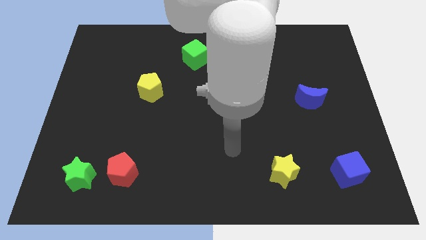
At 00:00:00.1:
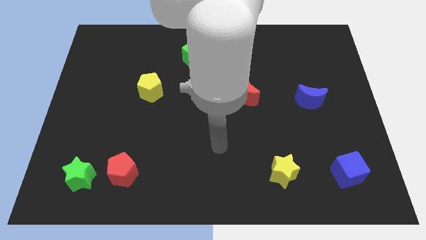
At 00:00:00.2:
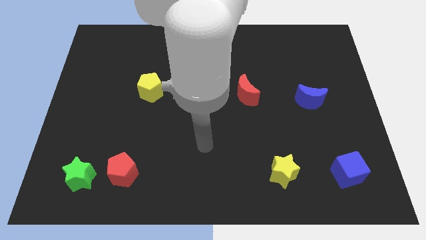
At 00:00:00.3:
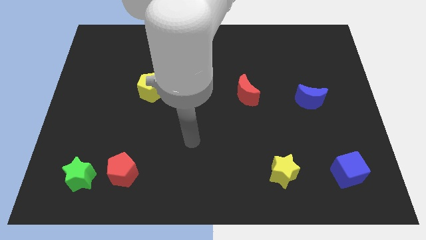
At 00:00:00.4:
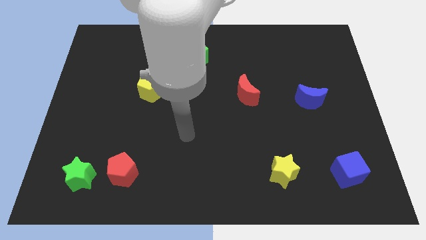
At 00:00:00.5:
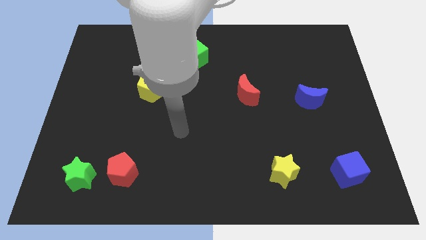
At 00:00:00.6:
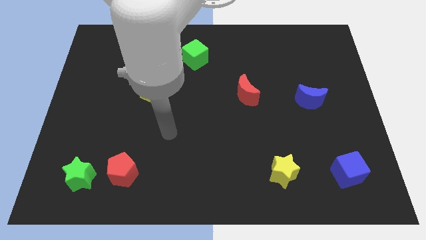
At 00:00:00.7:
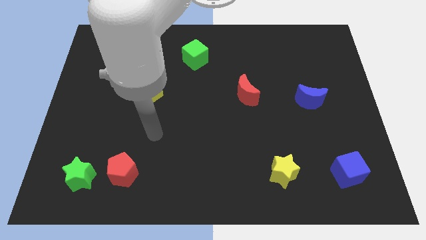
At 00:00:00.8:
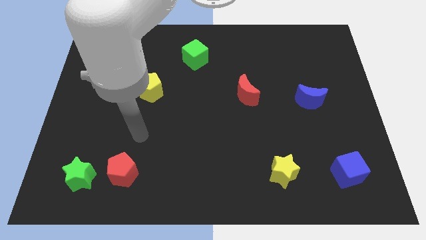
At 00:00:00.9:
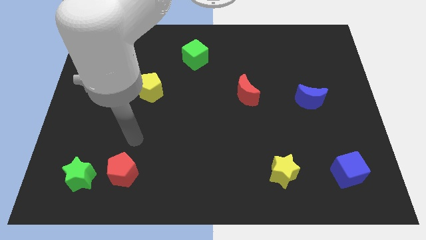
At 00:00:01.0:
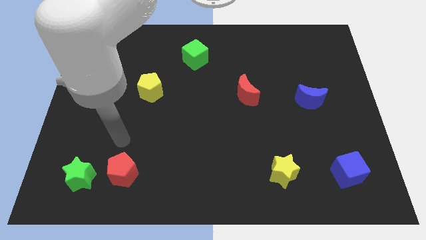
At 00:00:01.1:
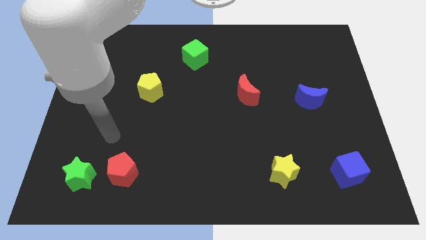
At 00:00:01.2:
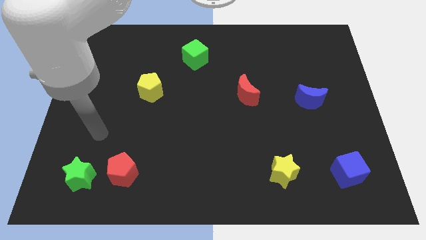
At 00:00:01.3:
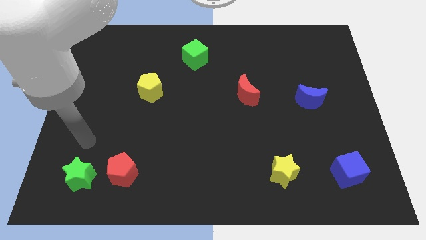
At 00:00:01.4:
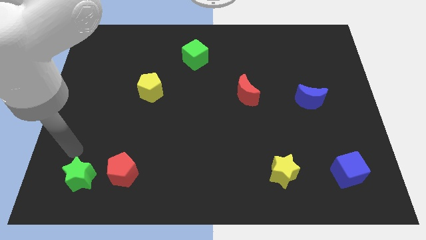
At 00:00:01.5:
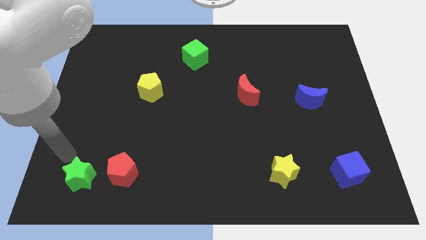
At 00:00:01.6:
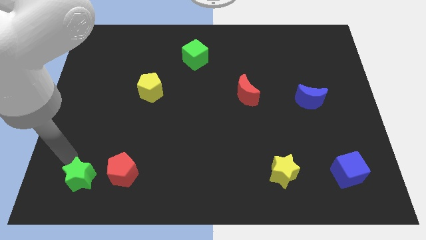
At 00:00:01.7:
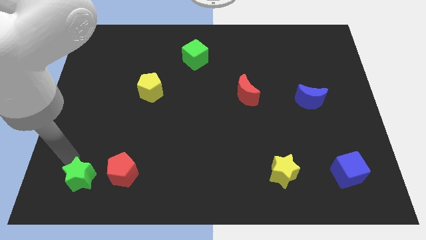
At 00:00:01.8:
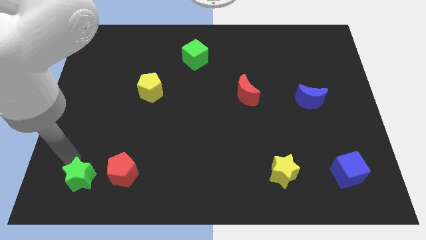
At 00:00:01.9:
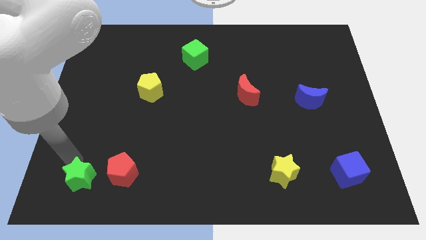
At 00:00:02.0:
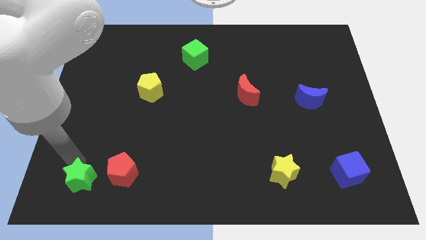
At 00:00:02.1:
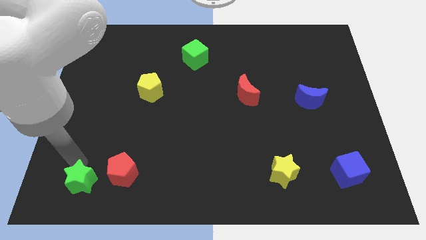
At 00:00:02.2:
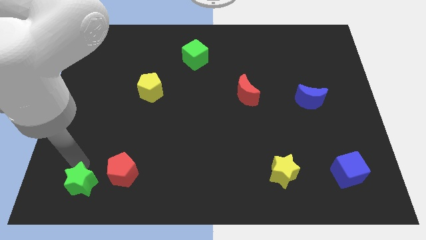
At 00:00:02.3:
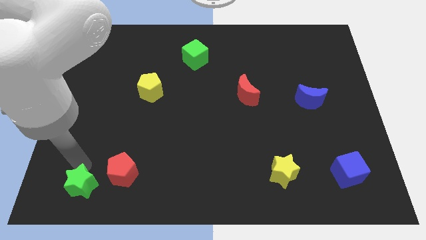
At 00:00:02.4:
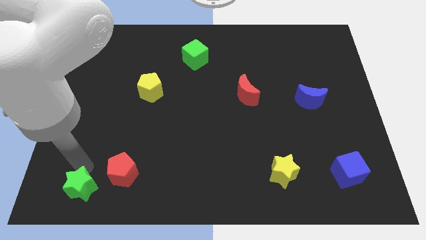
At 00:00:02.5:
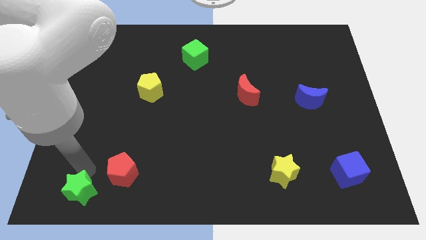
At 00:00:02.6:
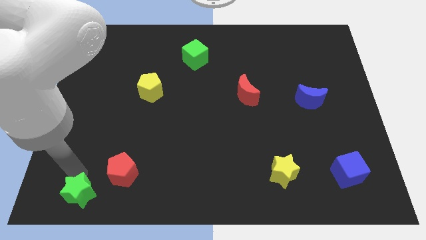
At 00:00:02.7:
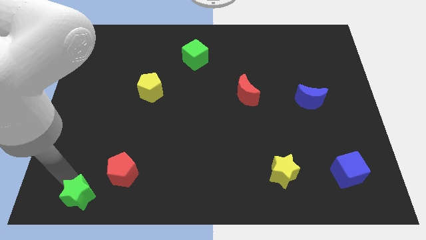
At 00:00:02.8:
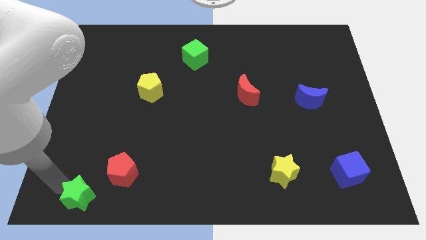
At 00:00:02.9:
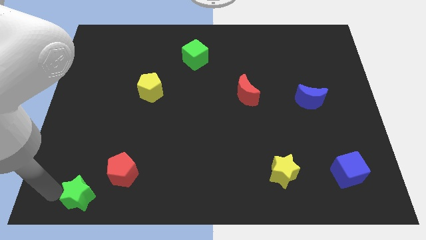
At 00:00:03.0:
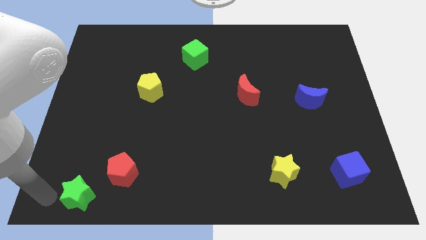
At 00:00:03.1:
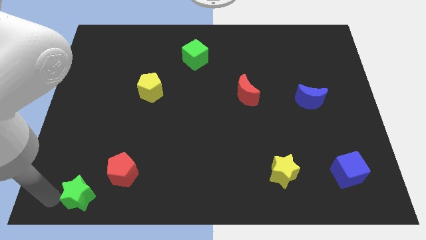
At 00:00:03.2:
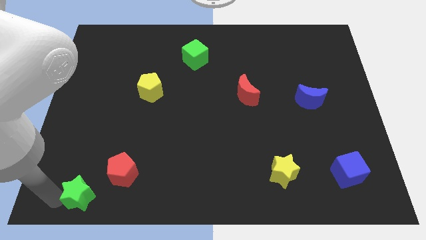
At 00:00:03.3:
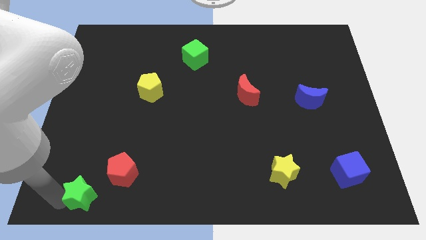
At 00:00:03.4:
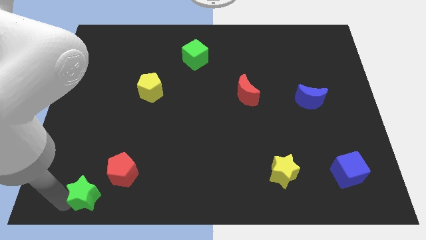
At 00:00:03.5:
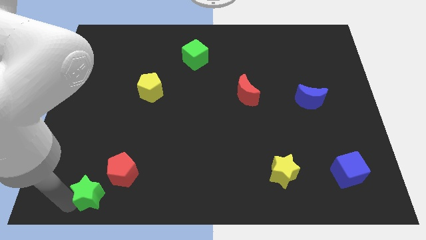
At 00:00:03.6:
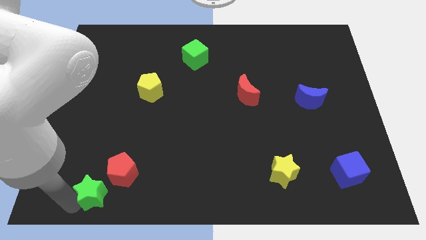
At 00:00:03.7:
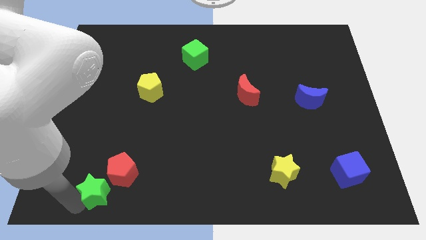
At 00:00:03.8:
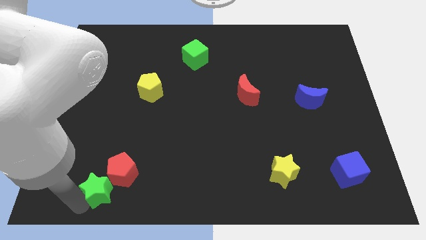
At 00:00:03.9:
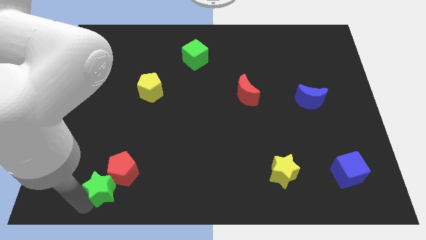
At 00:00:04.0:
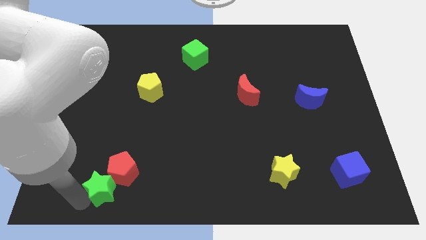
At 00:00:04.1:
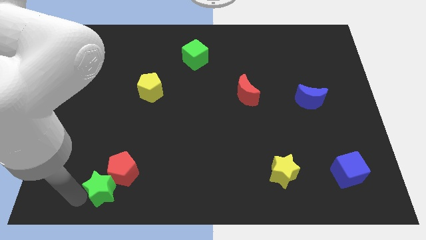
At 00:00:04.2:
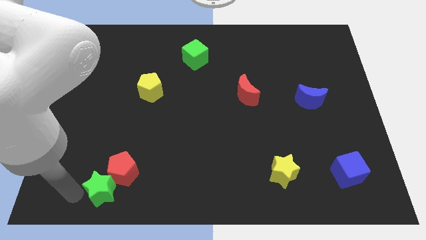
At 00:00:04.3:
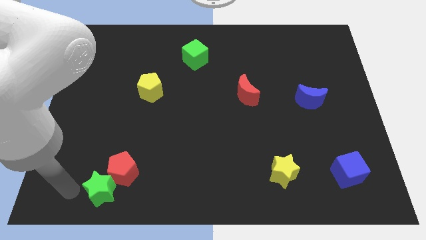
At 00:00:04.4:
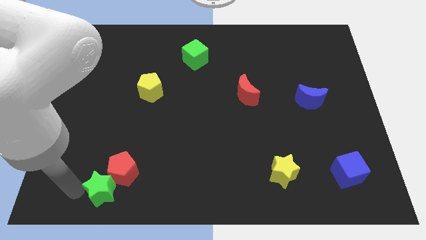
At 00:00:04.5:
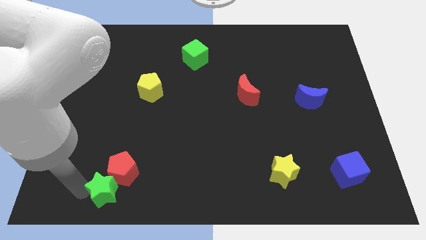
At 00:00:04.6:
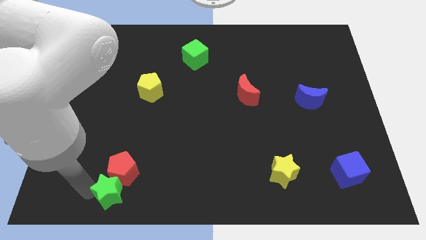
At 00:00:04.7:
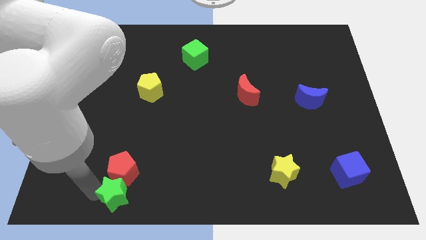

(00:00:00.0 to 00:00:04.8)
slightly move the green star to the right

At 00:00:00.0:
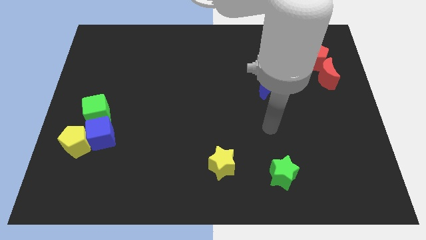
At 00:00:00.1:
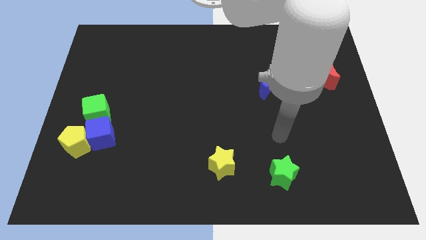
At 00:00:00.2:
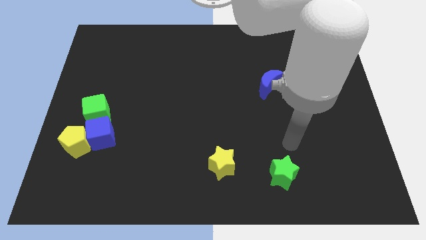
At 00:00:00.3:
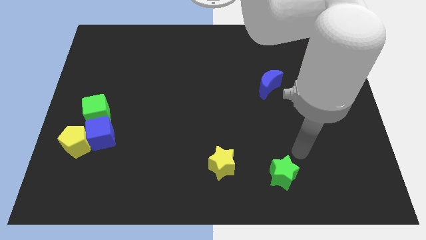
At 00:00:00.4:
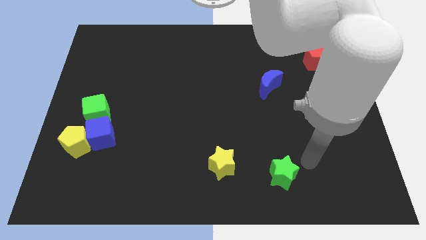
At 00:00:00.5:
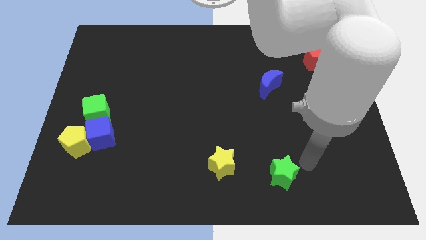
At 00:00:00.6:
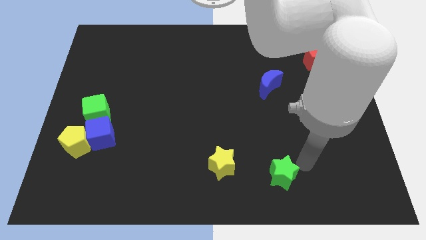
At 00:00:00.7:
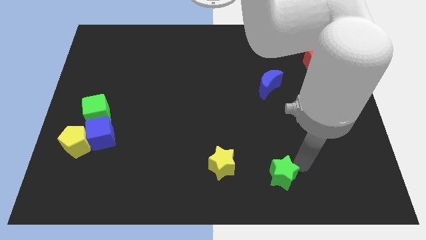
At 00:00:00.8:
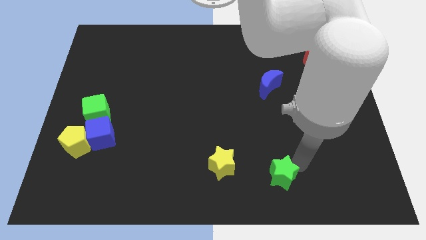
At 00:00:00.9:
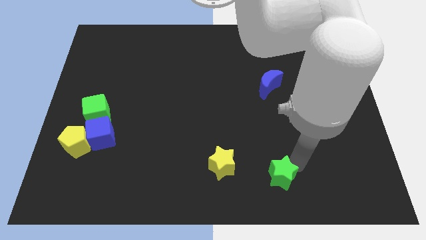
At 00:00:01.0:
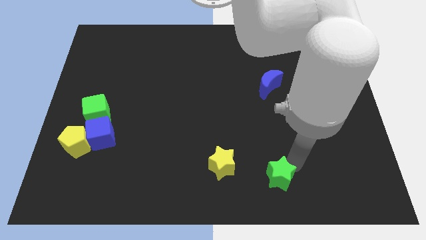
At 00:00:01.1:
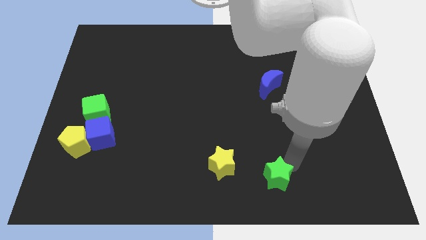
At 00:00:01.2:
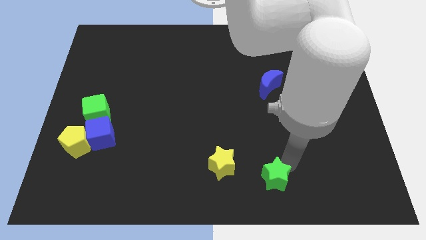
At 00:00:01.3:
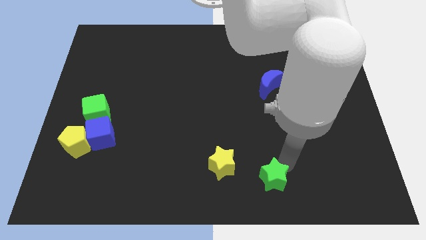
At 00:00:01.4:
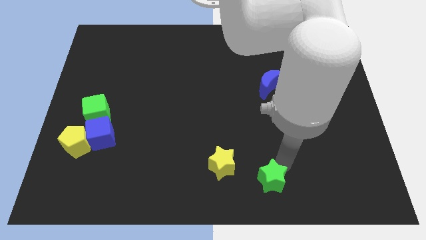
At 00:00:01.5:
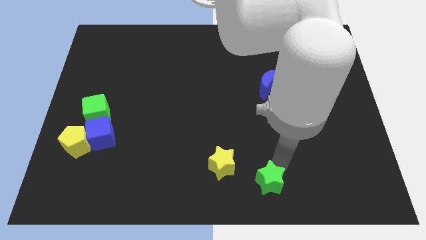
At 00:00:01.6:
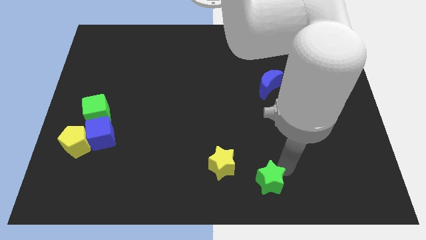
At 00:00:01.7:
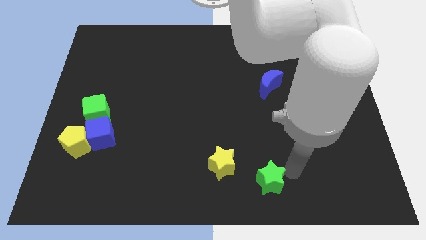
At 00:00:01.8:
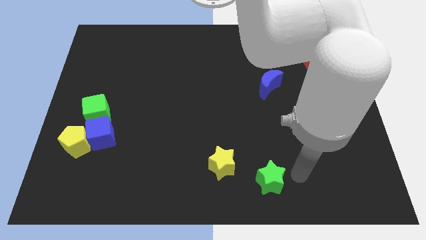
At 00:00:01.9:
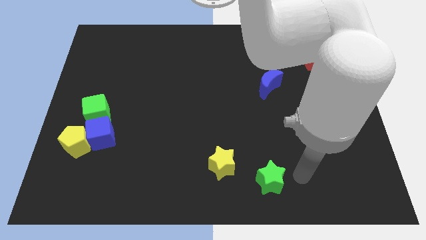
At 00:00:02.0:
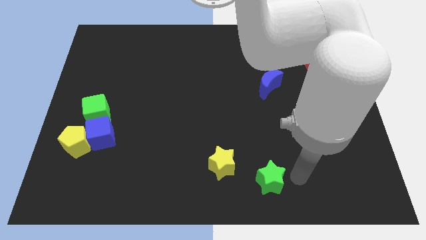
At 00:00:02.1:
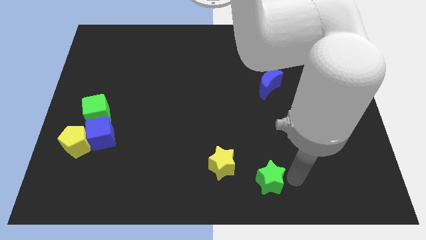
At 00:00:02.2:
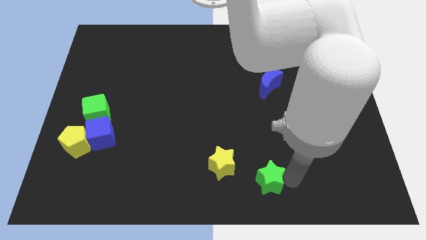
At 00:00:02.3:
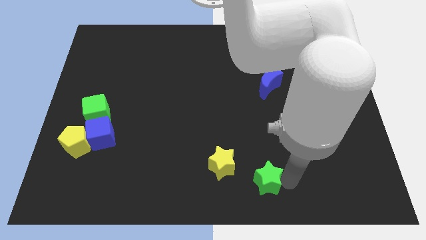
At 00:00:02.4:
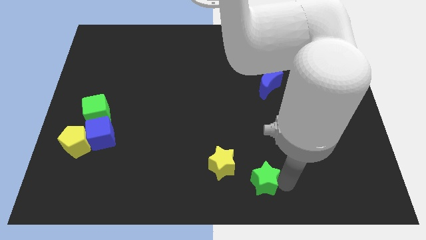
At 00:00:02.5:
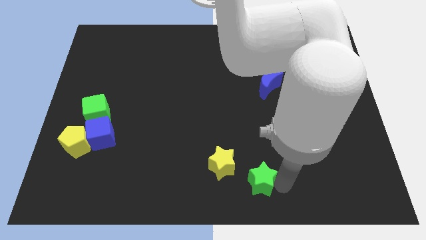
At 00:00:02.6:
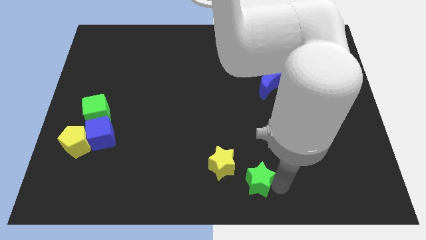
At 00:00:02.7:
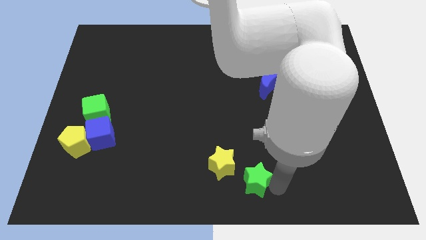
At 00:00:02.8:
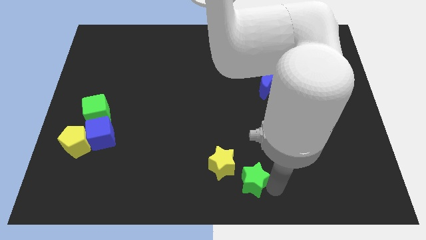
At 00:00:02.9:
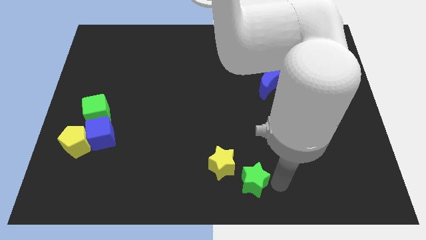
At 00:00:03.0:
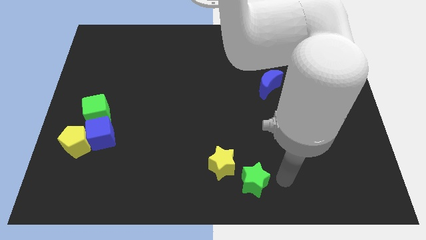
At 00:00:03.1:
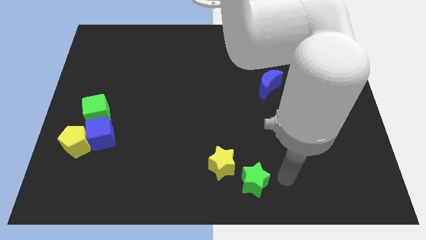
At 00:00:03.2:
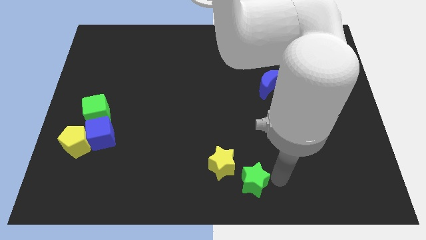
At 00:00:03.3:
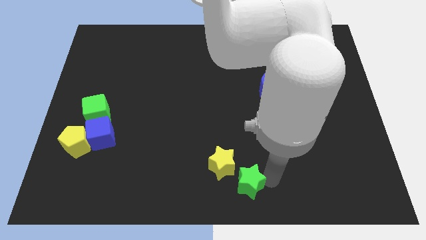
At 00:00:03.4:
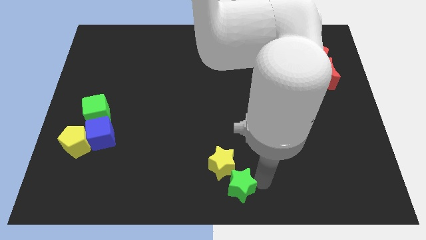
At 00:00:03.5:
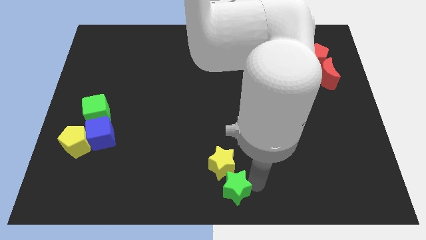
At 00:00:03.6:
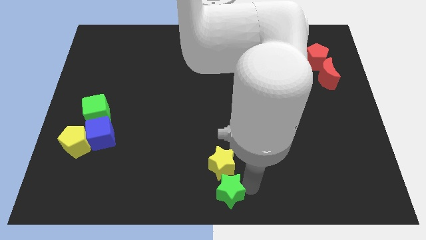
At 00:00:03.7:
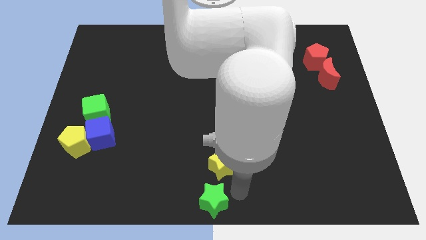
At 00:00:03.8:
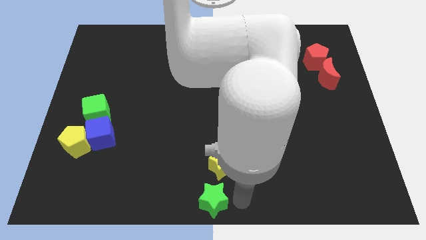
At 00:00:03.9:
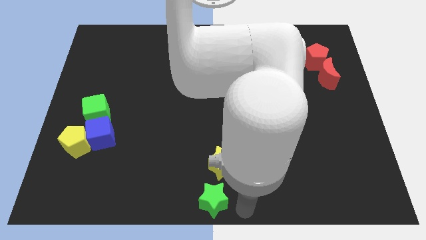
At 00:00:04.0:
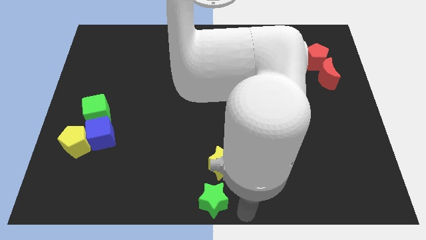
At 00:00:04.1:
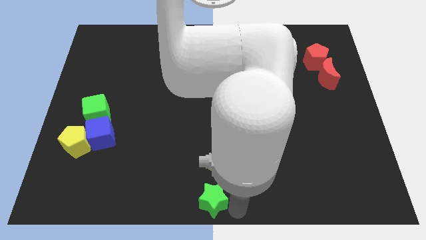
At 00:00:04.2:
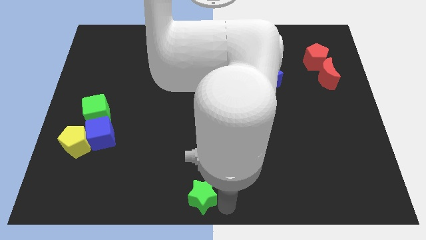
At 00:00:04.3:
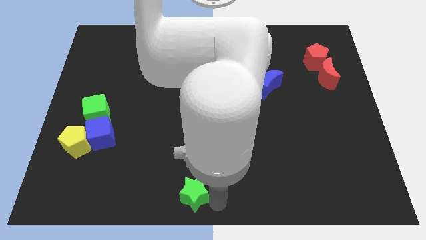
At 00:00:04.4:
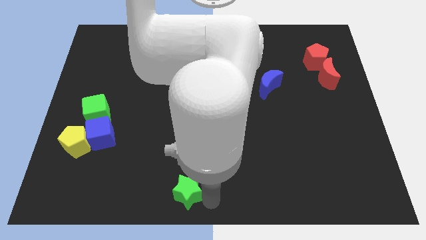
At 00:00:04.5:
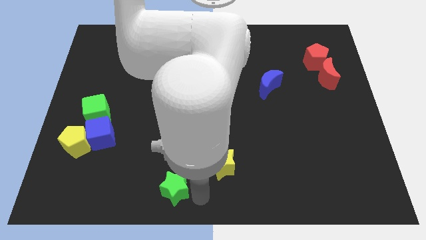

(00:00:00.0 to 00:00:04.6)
push the green star left
